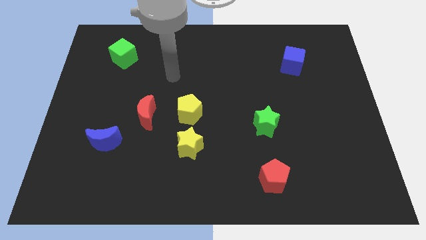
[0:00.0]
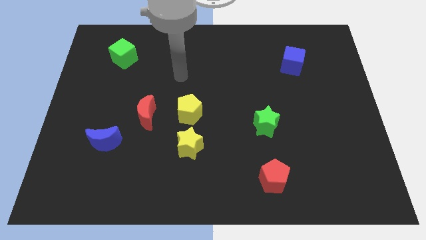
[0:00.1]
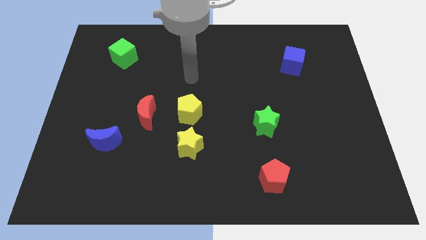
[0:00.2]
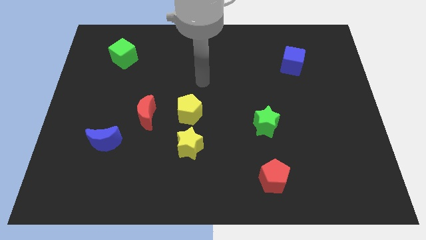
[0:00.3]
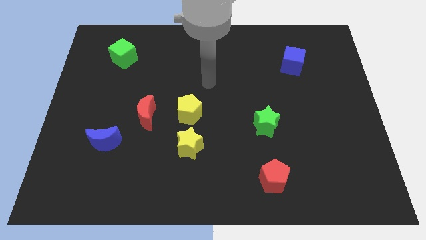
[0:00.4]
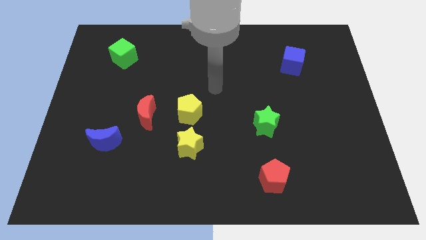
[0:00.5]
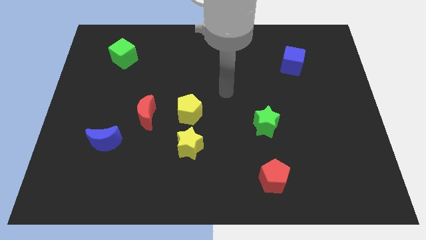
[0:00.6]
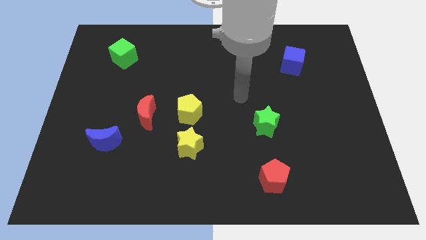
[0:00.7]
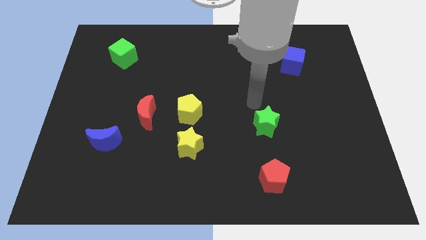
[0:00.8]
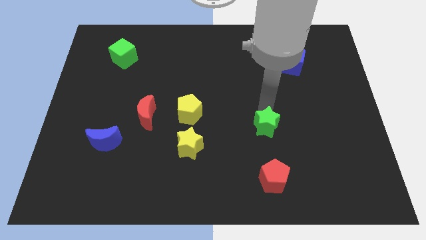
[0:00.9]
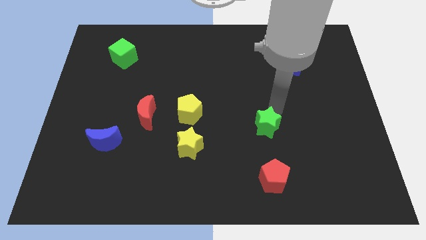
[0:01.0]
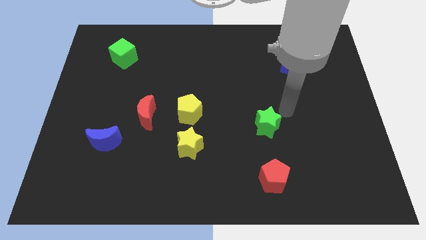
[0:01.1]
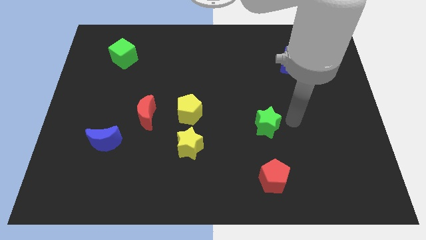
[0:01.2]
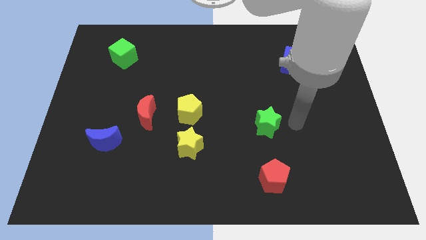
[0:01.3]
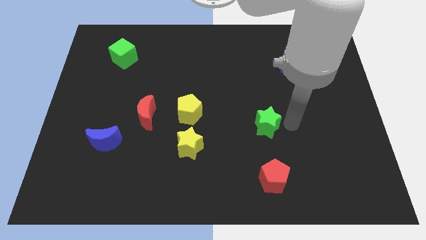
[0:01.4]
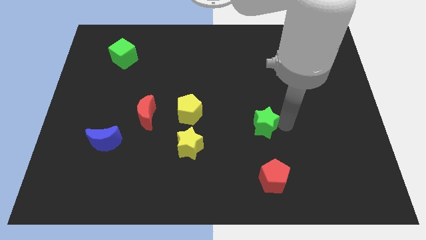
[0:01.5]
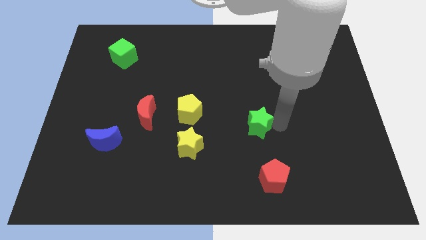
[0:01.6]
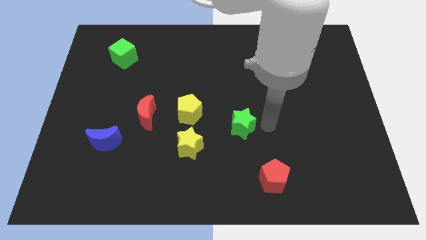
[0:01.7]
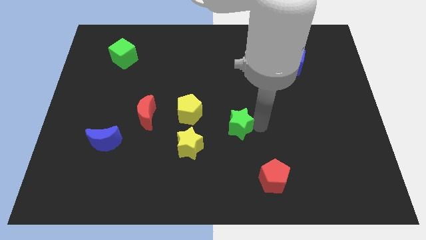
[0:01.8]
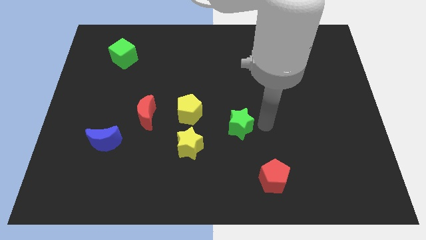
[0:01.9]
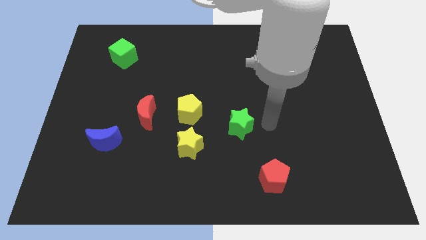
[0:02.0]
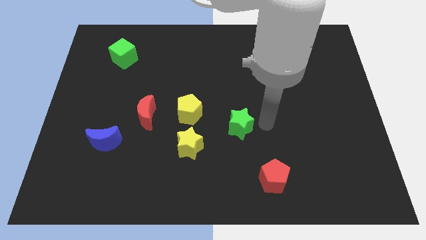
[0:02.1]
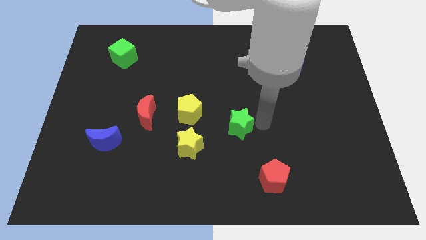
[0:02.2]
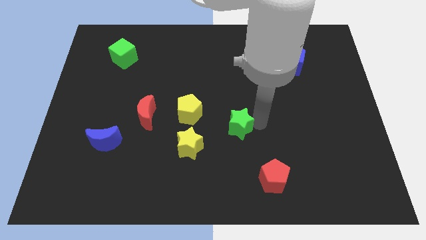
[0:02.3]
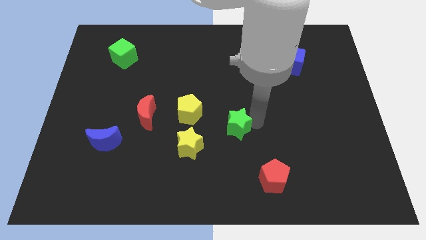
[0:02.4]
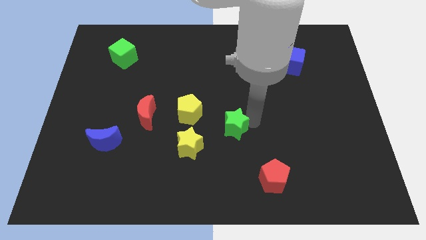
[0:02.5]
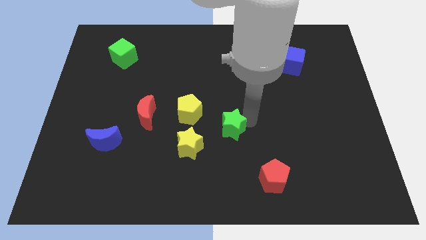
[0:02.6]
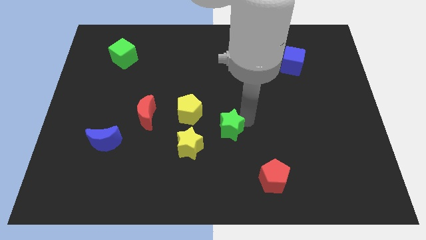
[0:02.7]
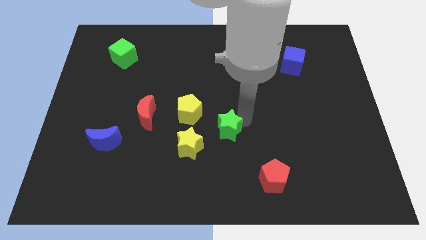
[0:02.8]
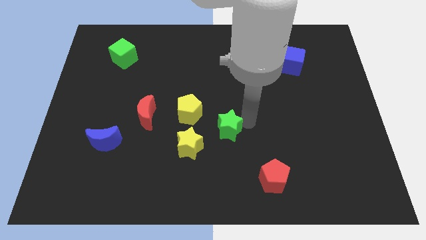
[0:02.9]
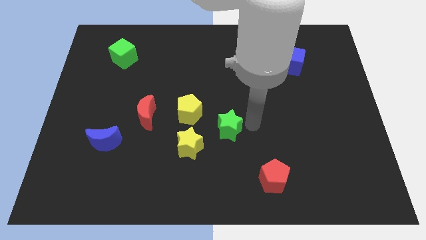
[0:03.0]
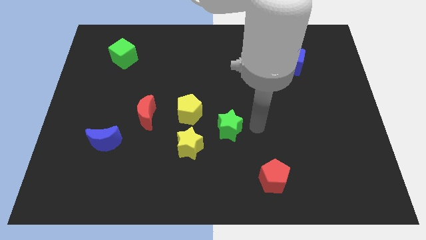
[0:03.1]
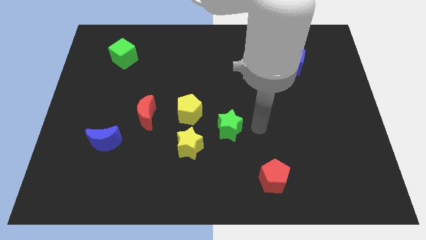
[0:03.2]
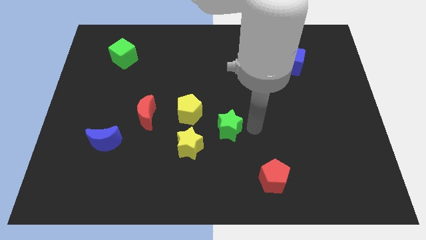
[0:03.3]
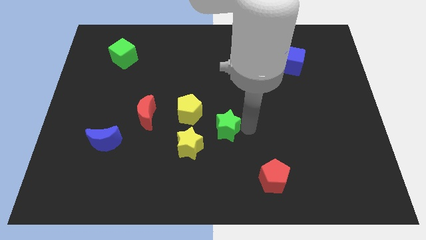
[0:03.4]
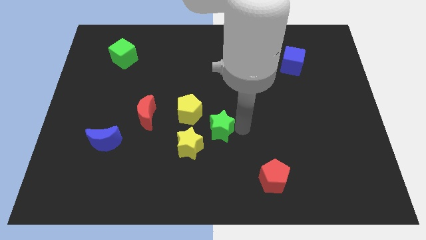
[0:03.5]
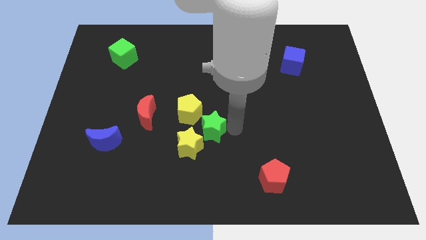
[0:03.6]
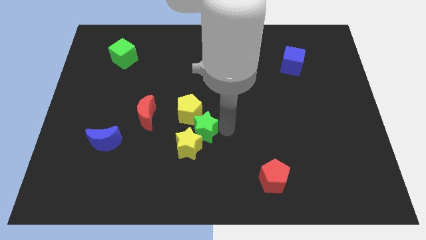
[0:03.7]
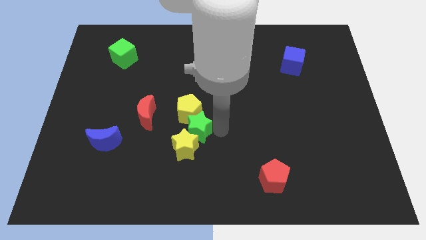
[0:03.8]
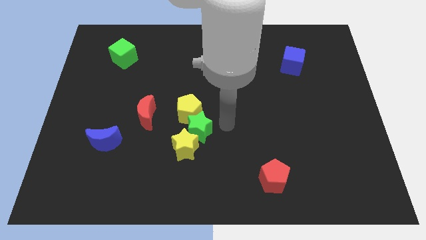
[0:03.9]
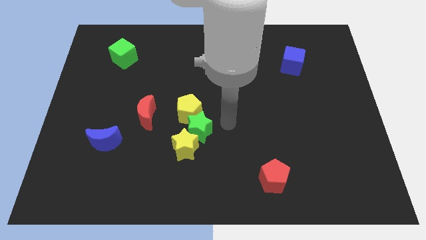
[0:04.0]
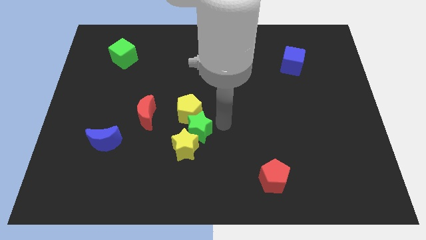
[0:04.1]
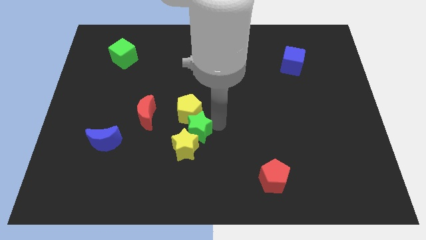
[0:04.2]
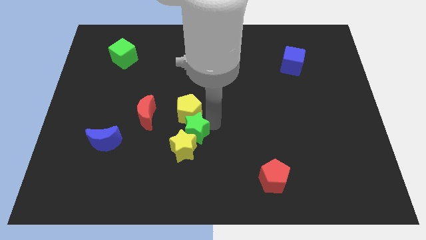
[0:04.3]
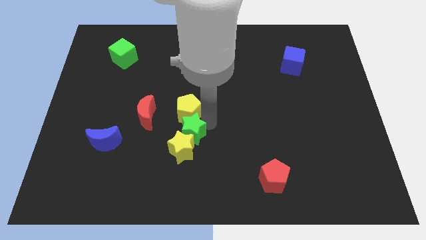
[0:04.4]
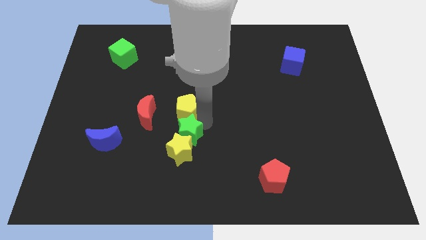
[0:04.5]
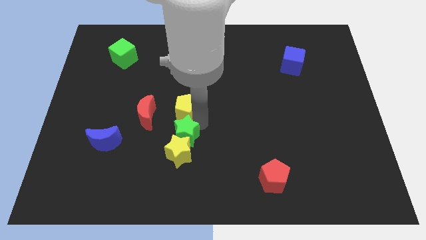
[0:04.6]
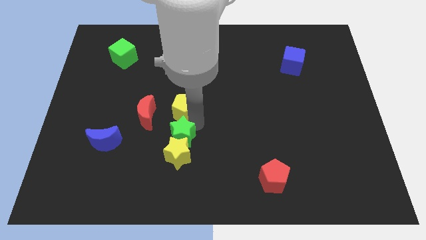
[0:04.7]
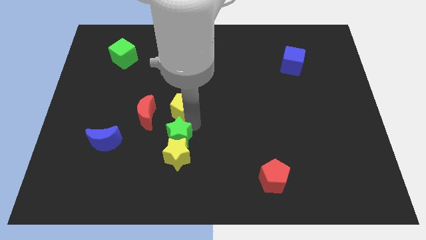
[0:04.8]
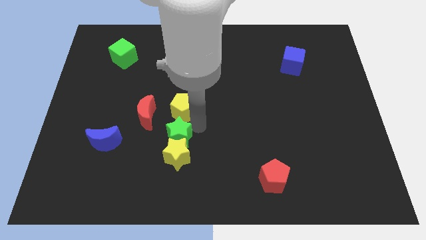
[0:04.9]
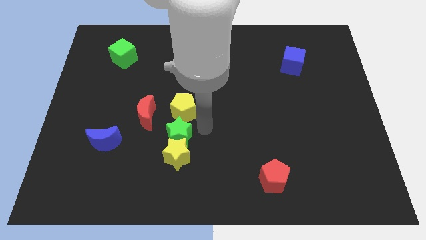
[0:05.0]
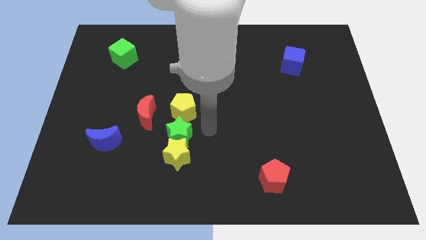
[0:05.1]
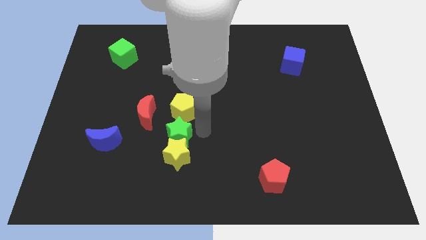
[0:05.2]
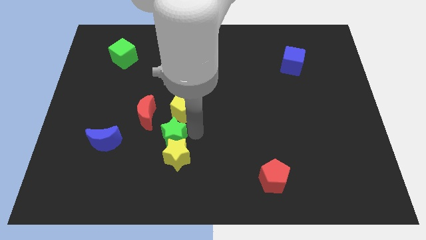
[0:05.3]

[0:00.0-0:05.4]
put the green star just right of the blue moon

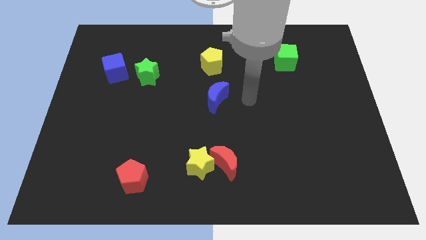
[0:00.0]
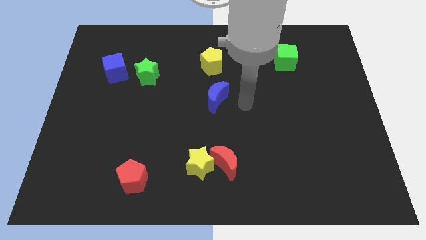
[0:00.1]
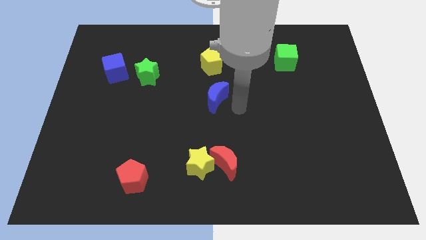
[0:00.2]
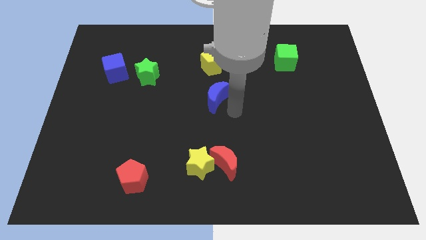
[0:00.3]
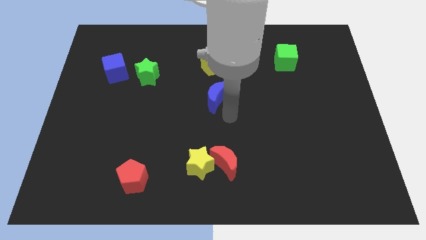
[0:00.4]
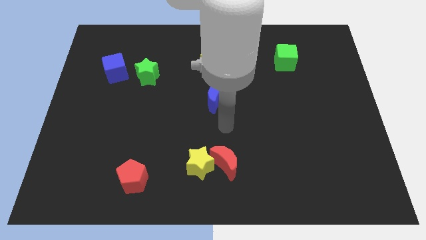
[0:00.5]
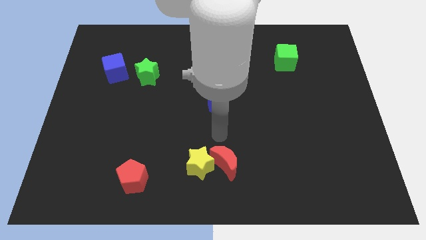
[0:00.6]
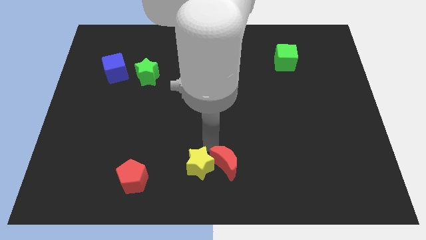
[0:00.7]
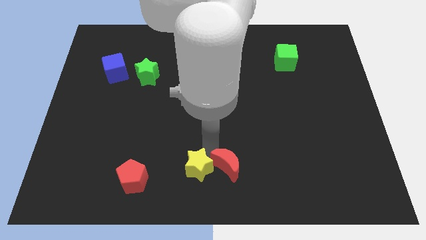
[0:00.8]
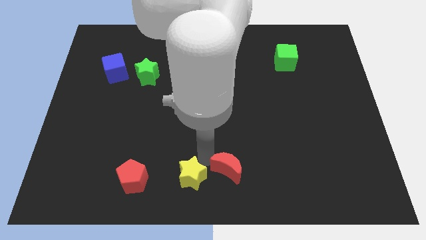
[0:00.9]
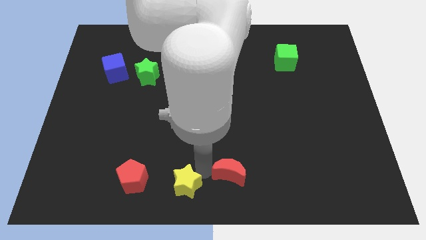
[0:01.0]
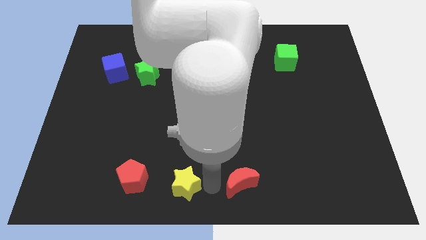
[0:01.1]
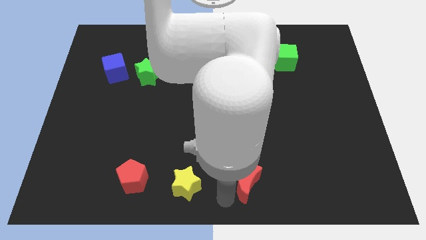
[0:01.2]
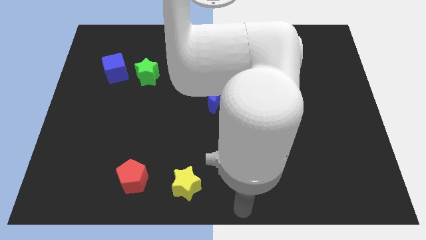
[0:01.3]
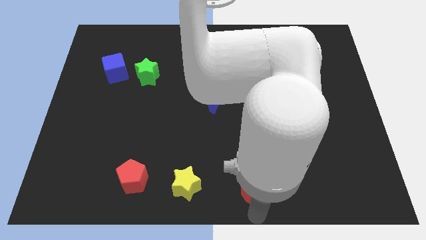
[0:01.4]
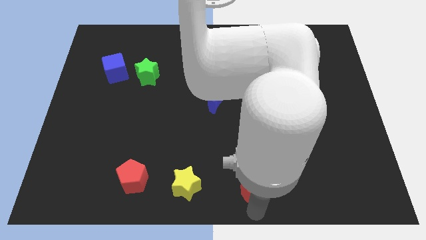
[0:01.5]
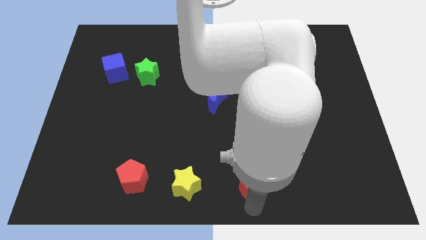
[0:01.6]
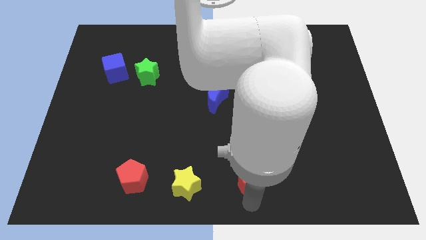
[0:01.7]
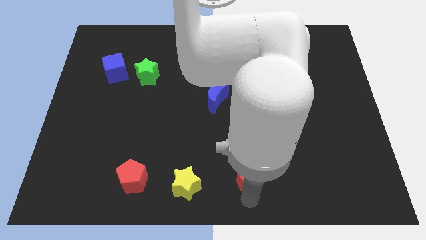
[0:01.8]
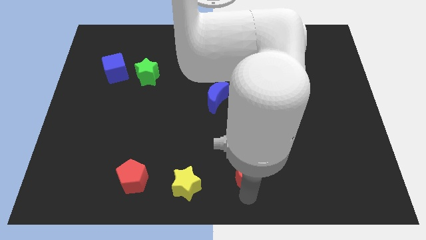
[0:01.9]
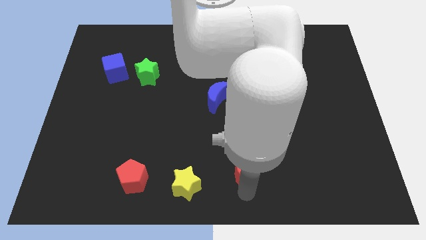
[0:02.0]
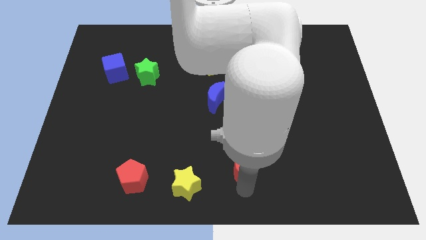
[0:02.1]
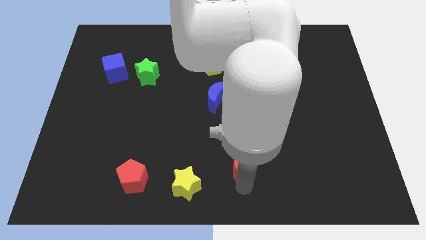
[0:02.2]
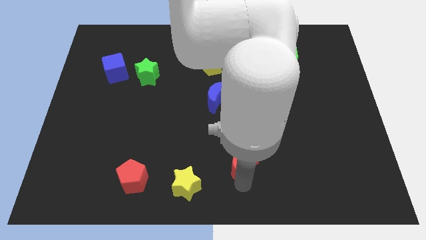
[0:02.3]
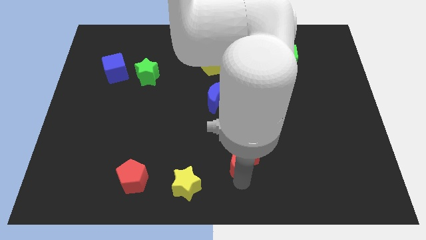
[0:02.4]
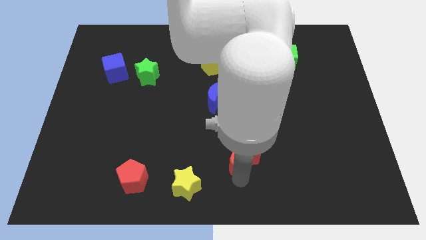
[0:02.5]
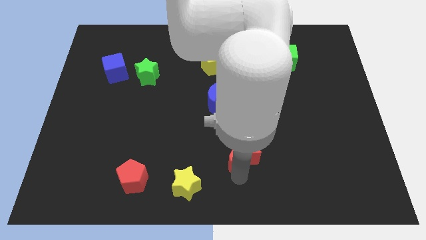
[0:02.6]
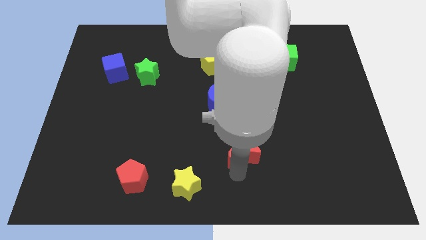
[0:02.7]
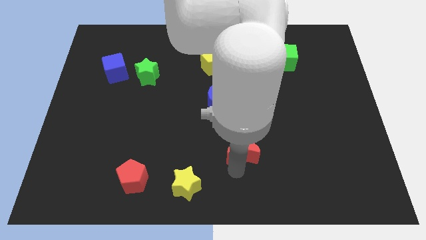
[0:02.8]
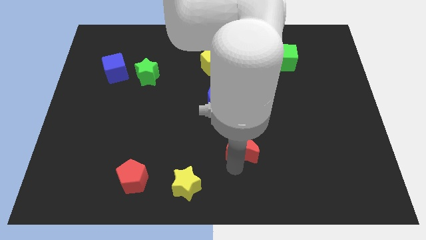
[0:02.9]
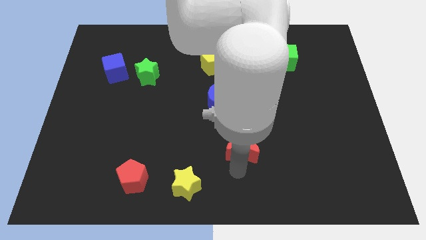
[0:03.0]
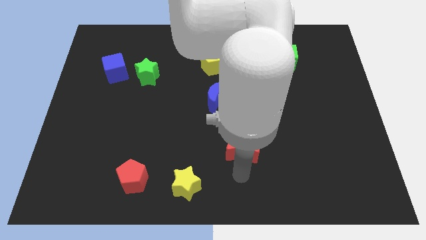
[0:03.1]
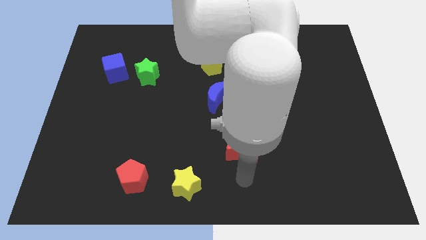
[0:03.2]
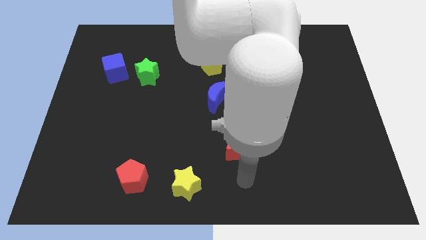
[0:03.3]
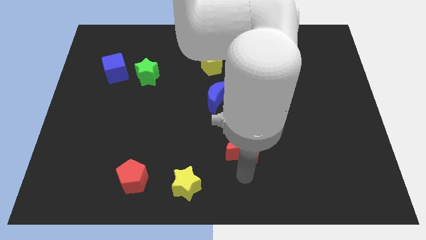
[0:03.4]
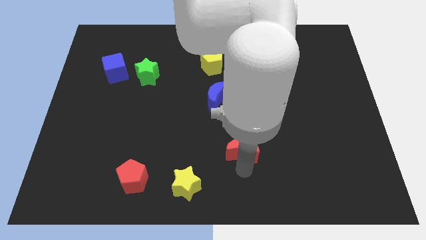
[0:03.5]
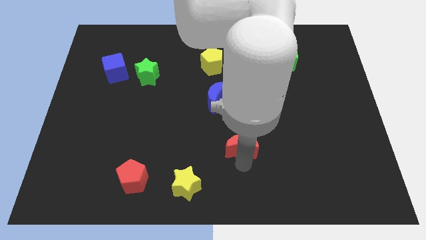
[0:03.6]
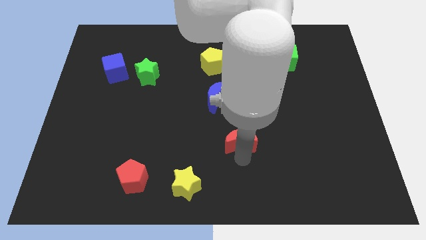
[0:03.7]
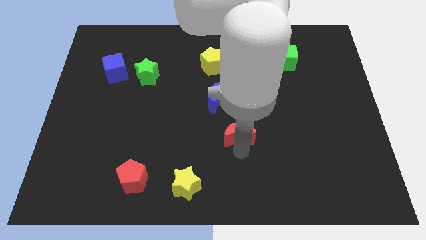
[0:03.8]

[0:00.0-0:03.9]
put the red moon diagonally down and to the right of the blue moon
